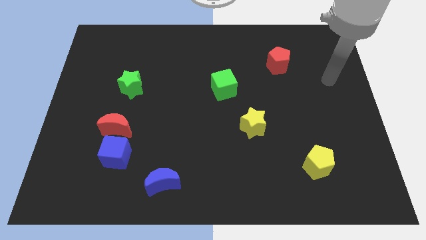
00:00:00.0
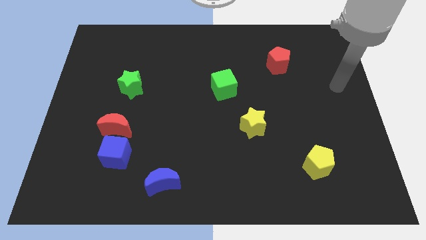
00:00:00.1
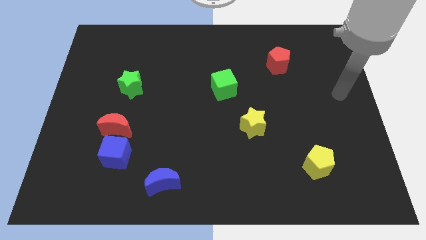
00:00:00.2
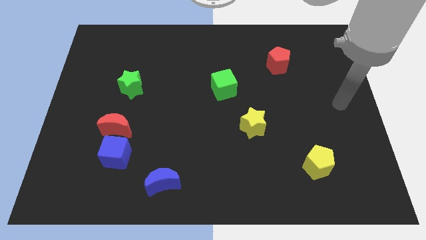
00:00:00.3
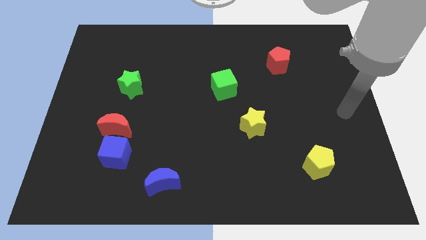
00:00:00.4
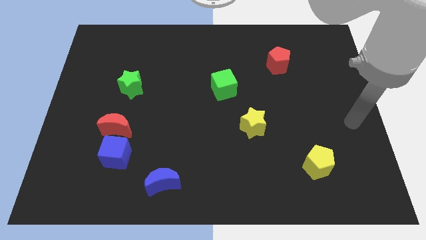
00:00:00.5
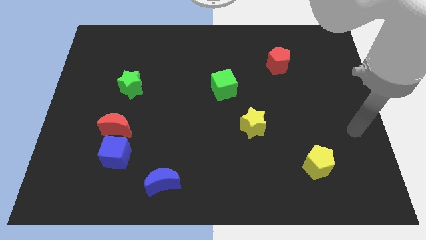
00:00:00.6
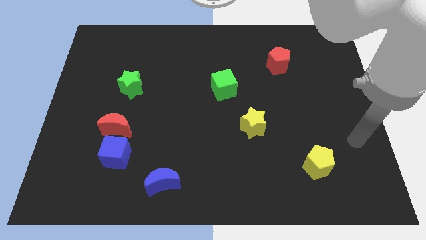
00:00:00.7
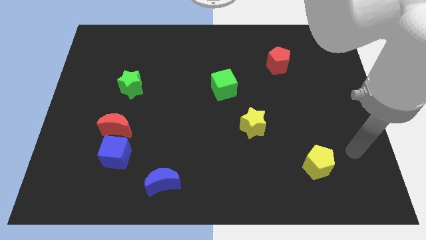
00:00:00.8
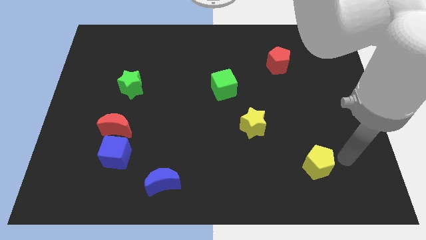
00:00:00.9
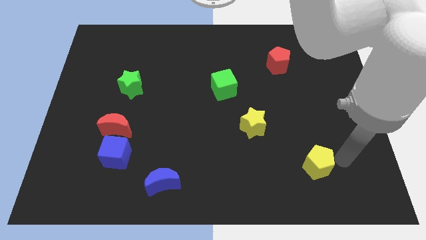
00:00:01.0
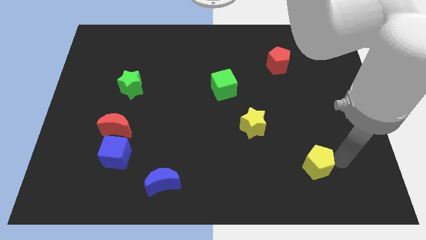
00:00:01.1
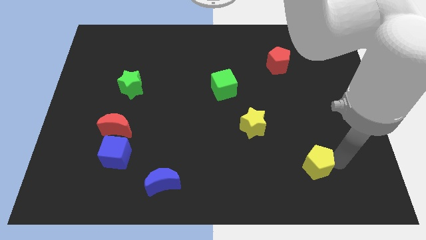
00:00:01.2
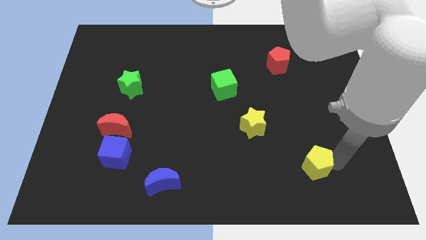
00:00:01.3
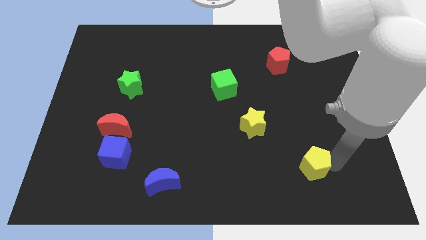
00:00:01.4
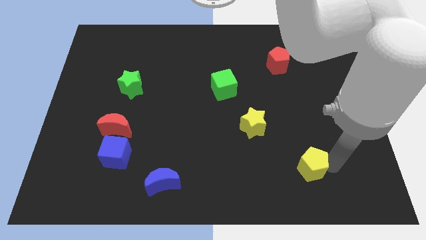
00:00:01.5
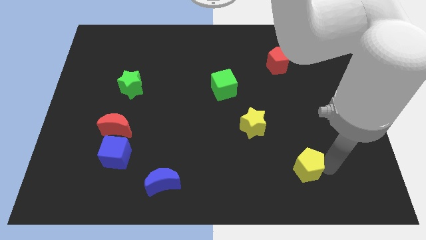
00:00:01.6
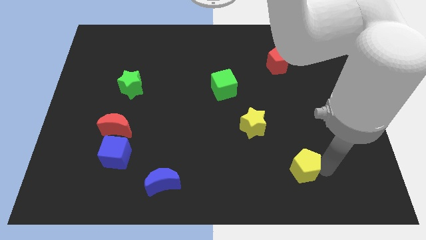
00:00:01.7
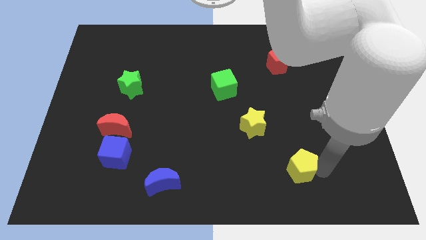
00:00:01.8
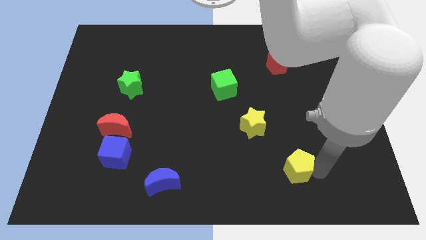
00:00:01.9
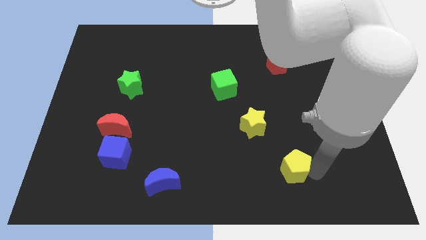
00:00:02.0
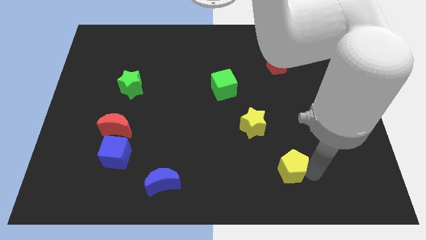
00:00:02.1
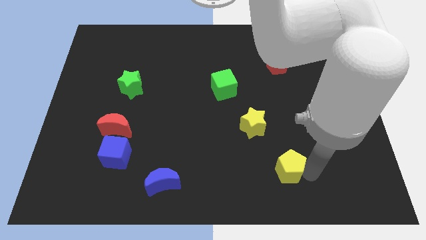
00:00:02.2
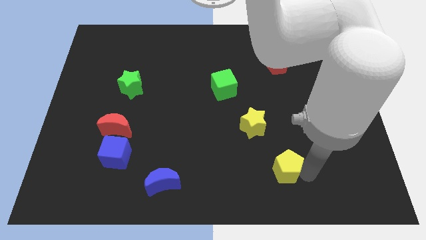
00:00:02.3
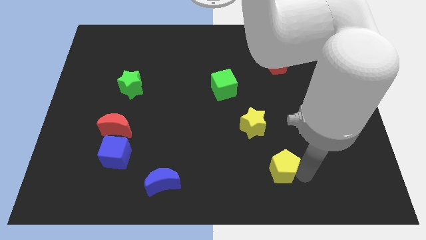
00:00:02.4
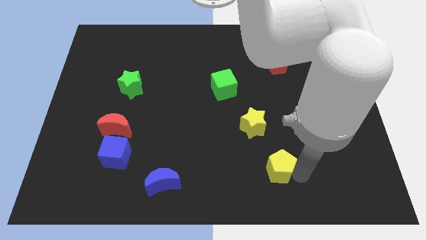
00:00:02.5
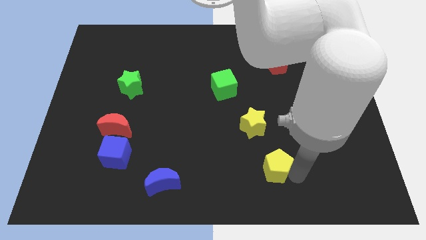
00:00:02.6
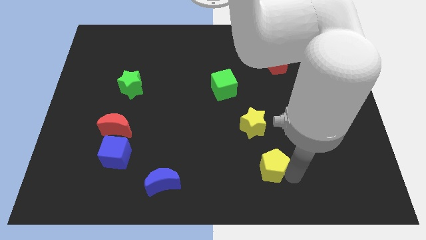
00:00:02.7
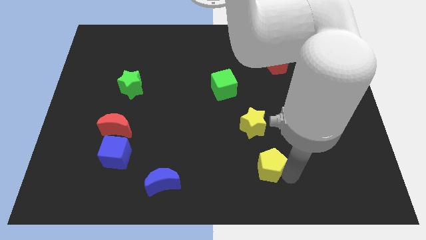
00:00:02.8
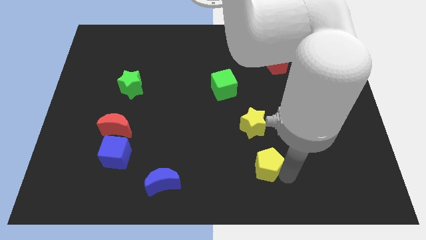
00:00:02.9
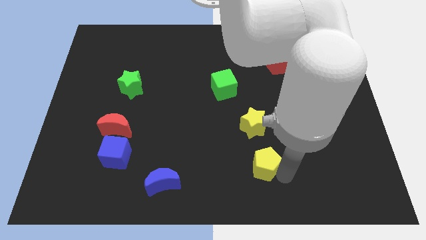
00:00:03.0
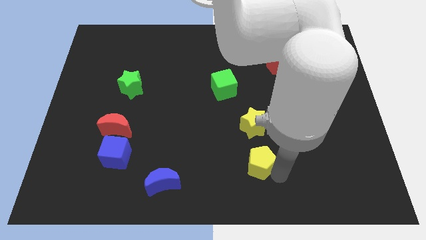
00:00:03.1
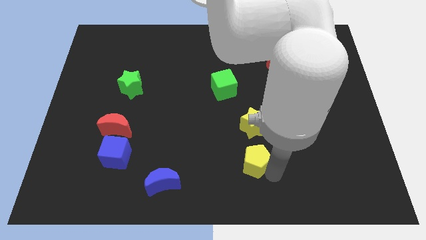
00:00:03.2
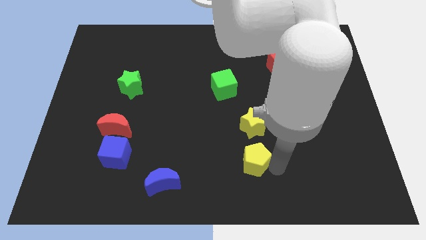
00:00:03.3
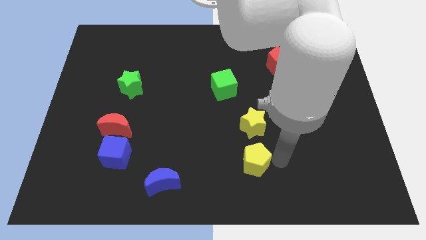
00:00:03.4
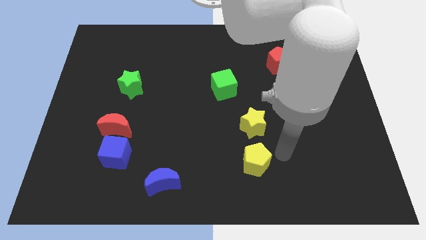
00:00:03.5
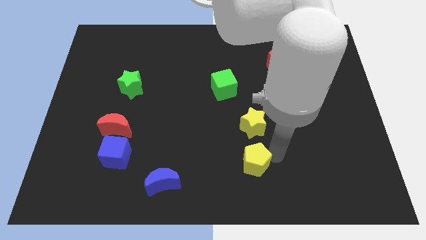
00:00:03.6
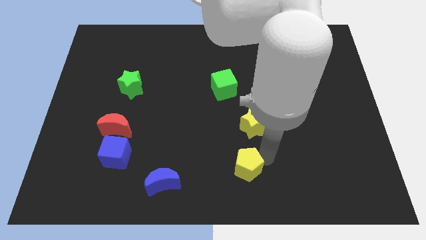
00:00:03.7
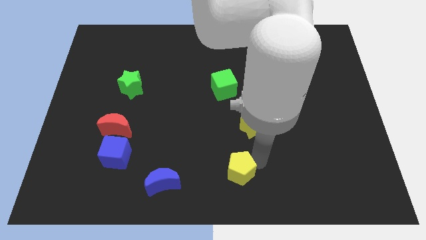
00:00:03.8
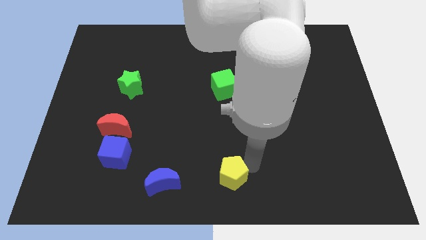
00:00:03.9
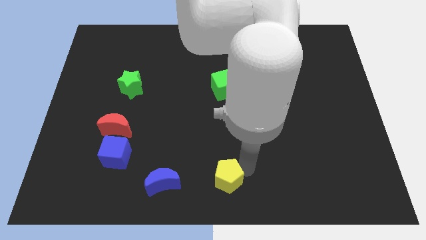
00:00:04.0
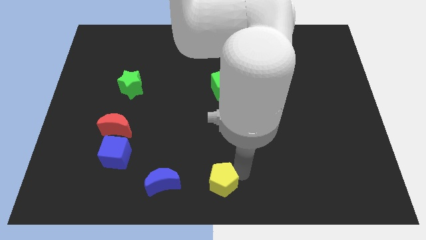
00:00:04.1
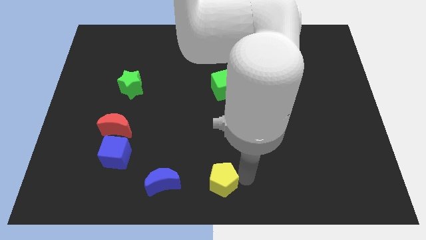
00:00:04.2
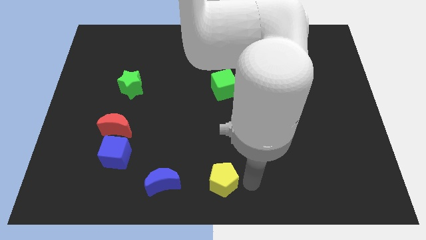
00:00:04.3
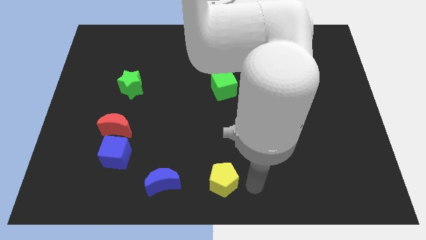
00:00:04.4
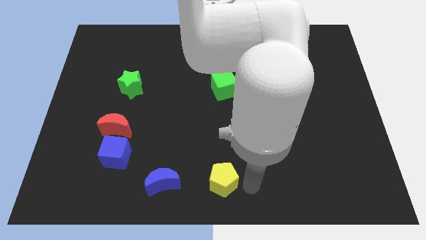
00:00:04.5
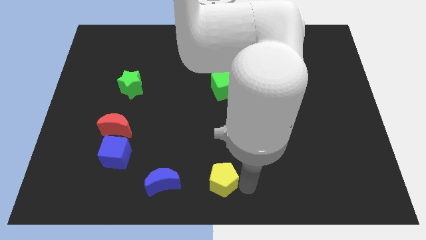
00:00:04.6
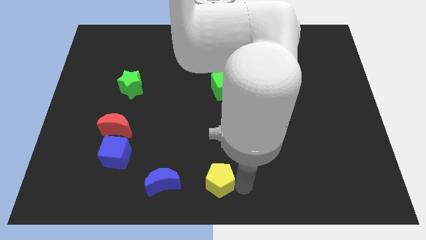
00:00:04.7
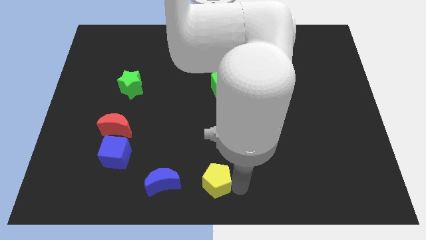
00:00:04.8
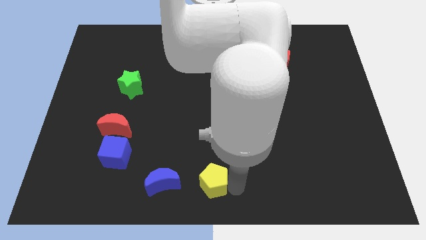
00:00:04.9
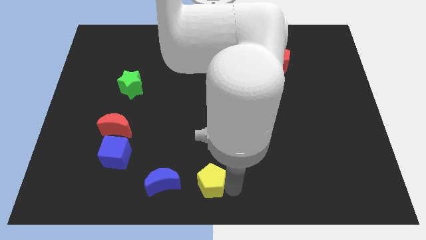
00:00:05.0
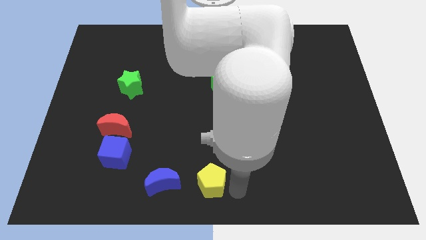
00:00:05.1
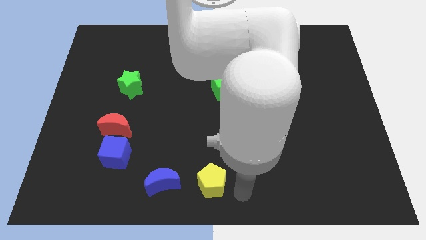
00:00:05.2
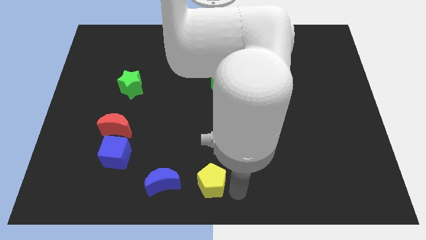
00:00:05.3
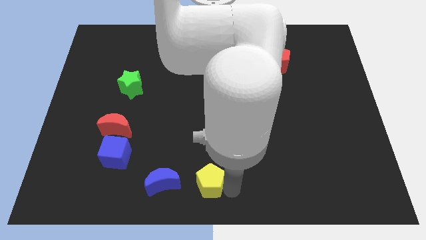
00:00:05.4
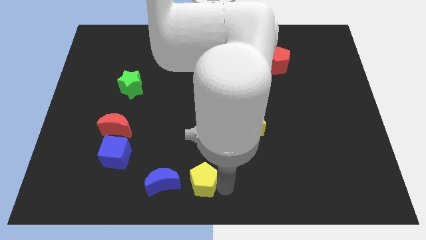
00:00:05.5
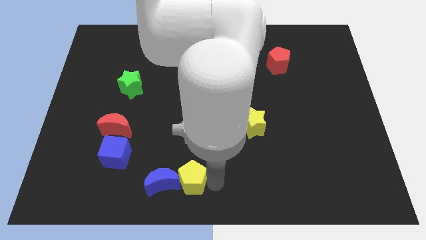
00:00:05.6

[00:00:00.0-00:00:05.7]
put the yellow pentagon close to the blue moon

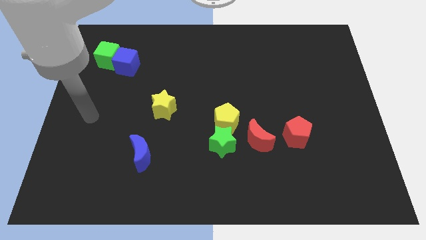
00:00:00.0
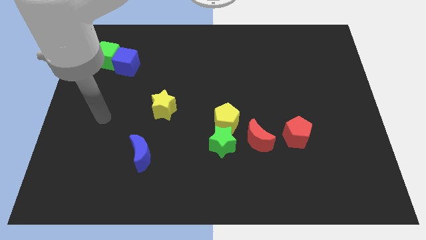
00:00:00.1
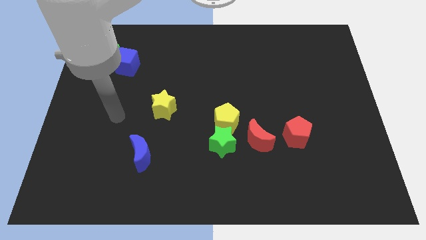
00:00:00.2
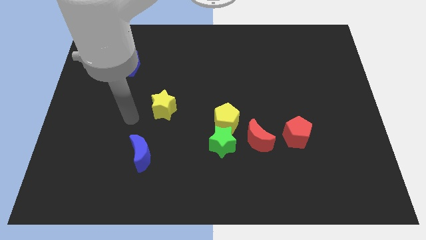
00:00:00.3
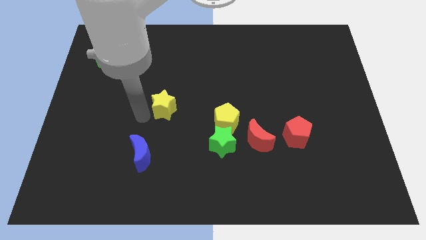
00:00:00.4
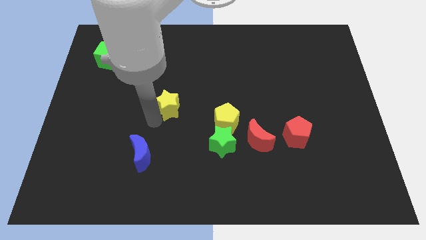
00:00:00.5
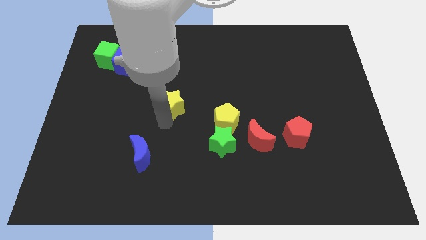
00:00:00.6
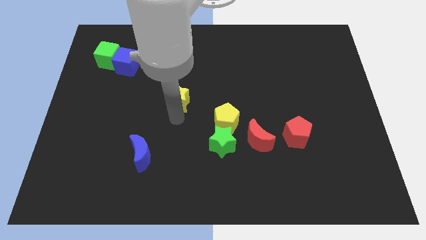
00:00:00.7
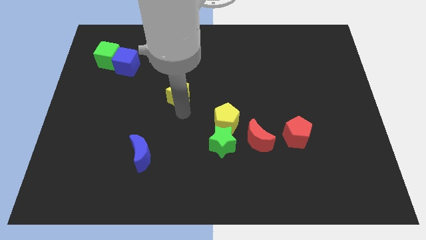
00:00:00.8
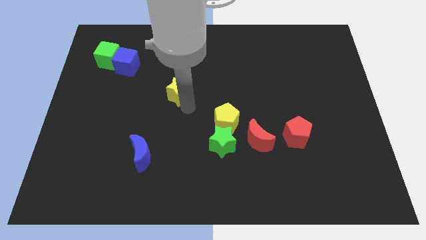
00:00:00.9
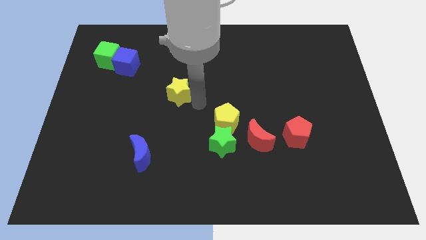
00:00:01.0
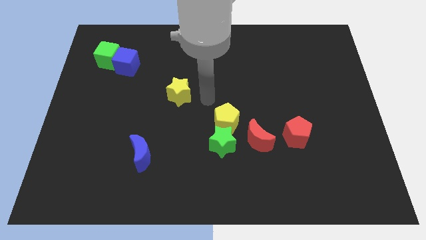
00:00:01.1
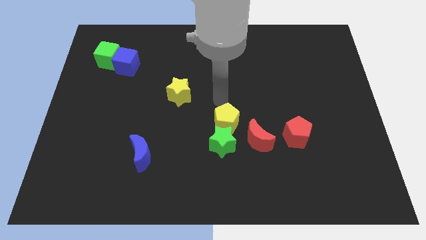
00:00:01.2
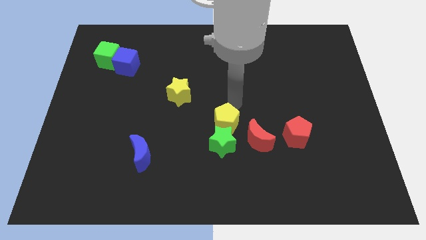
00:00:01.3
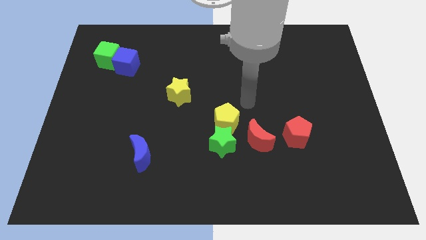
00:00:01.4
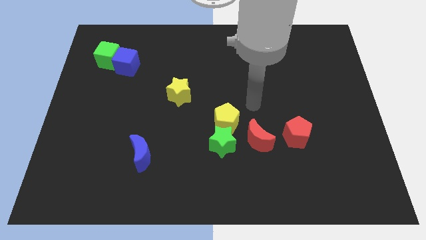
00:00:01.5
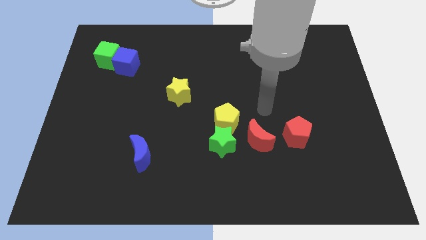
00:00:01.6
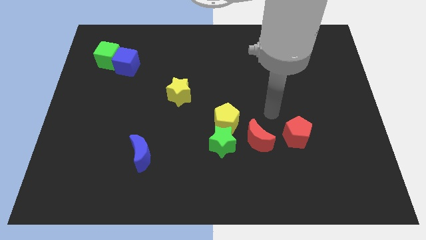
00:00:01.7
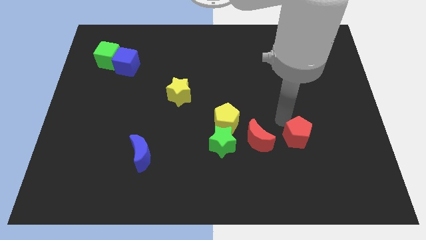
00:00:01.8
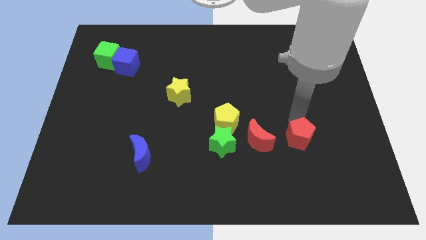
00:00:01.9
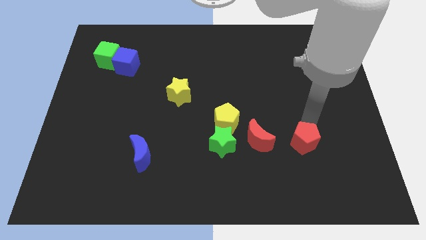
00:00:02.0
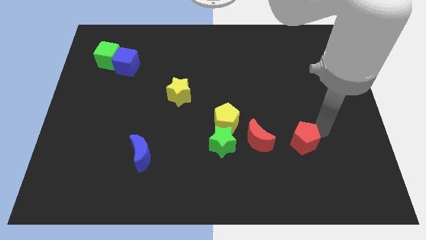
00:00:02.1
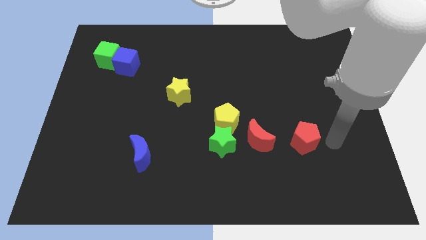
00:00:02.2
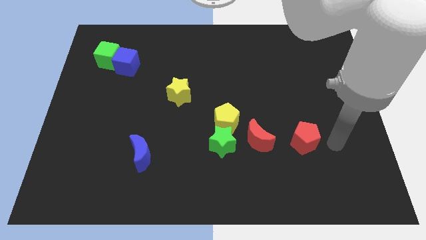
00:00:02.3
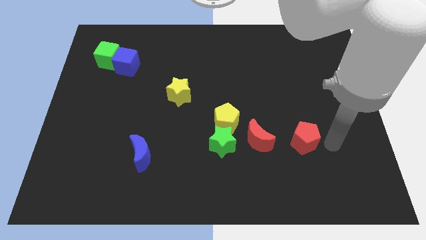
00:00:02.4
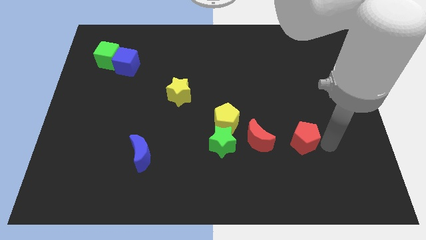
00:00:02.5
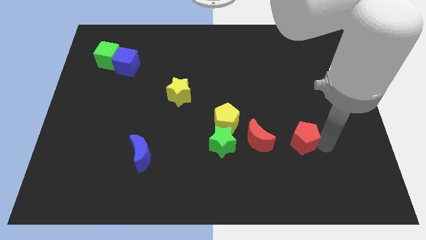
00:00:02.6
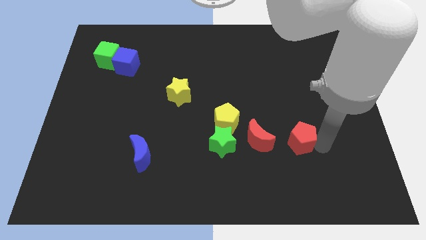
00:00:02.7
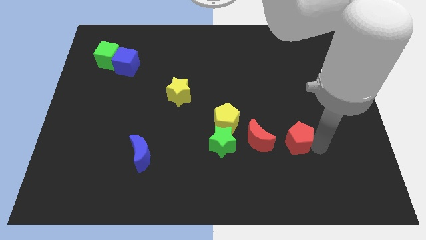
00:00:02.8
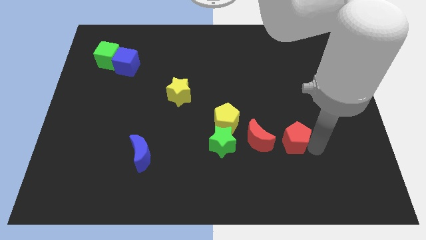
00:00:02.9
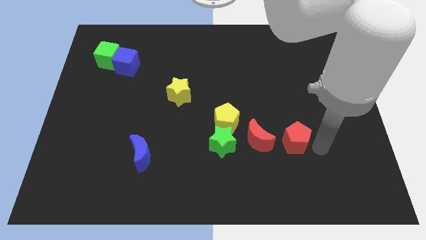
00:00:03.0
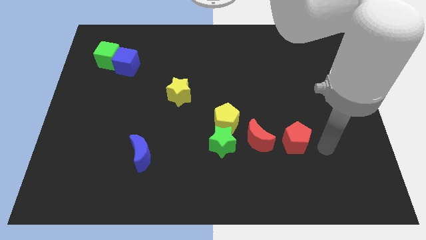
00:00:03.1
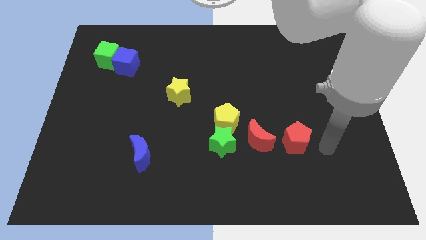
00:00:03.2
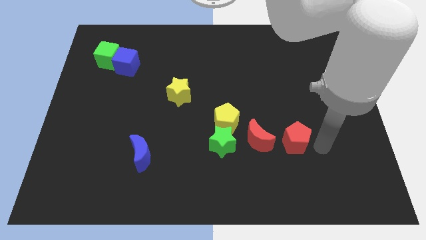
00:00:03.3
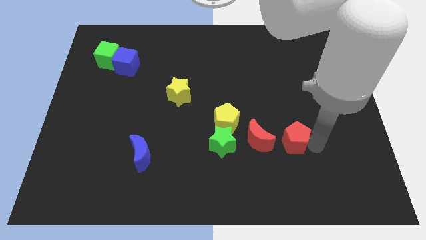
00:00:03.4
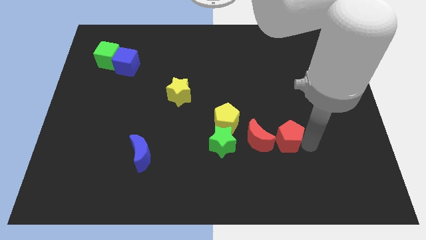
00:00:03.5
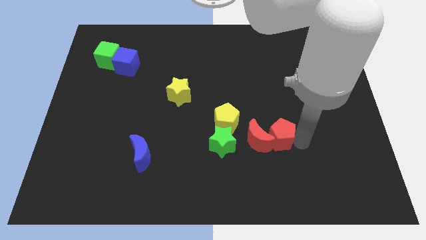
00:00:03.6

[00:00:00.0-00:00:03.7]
put the red pentagon to the red moon
